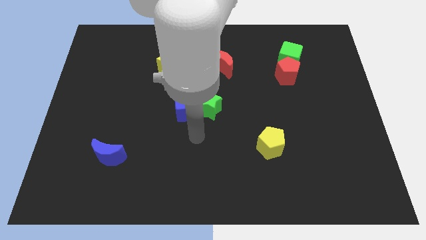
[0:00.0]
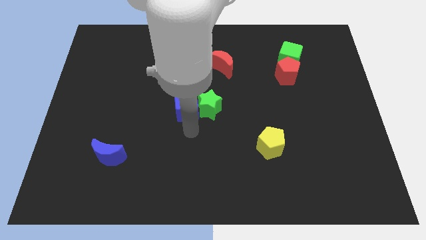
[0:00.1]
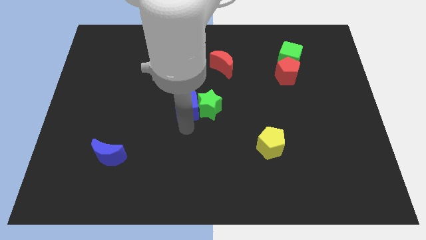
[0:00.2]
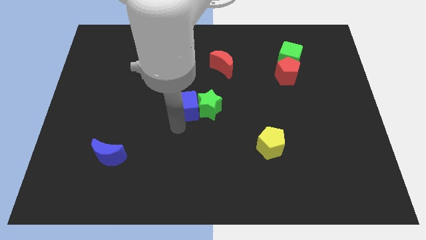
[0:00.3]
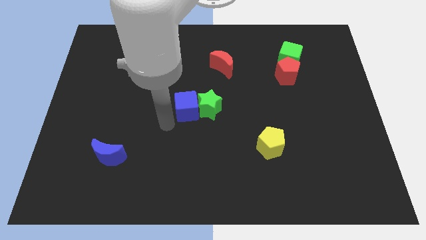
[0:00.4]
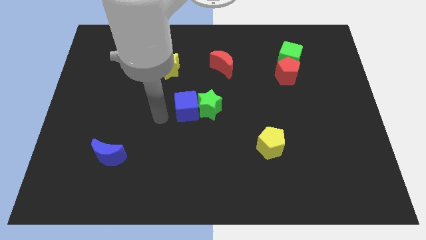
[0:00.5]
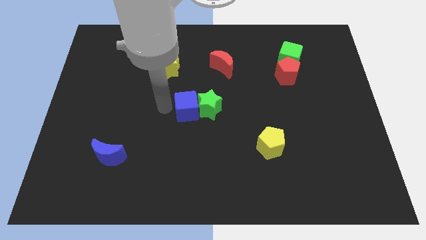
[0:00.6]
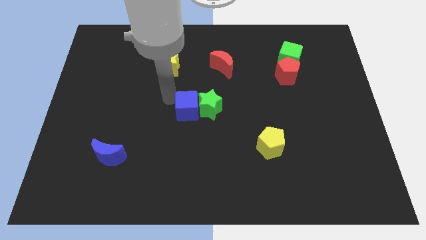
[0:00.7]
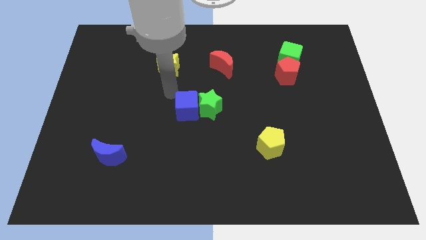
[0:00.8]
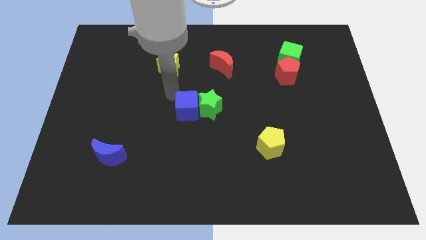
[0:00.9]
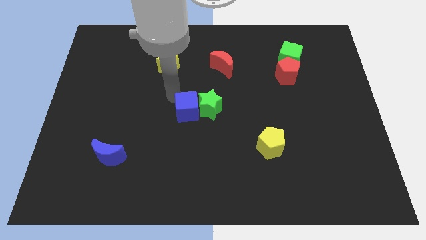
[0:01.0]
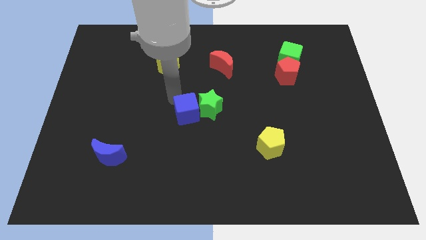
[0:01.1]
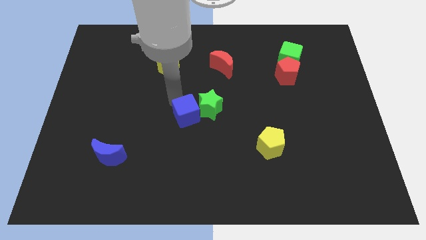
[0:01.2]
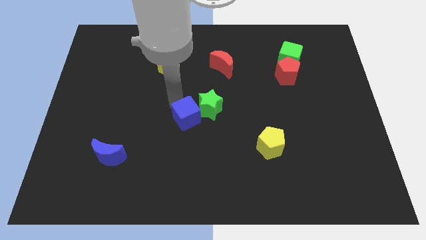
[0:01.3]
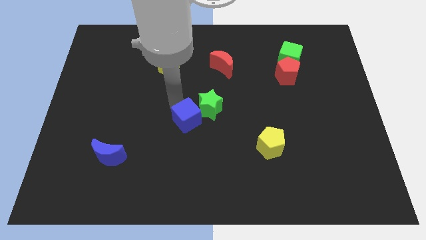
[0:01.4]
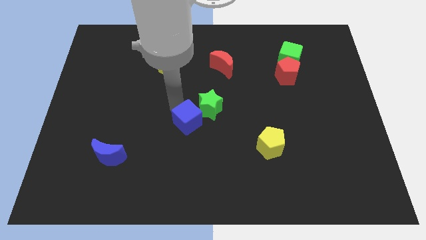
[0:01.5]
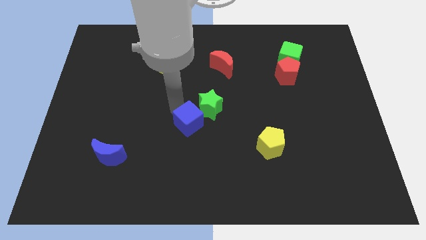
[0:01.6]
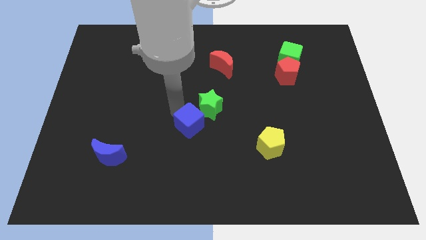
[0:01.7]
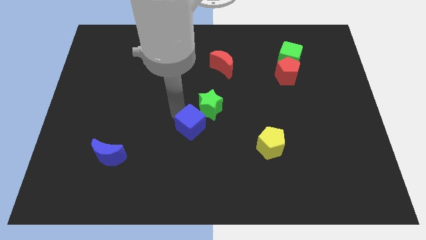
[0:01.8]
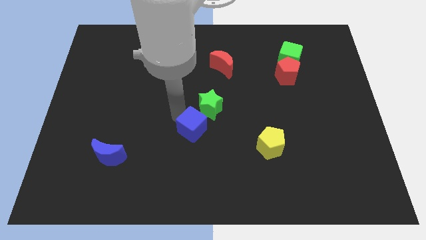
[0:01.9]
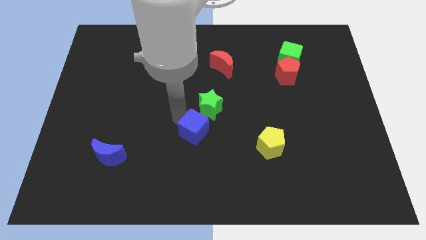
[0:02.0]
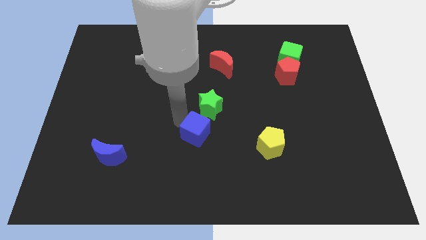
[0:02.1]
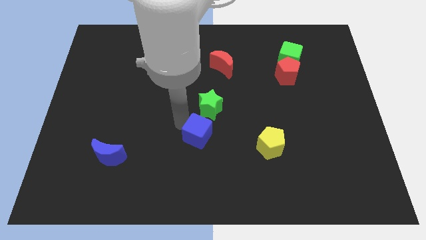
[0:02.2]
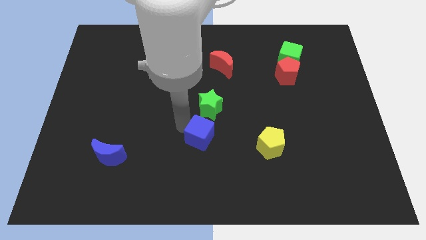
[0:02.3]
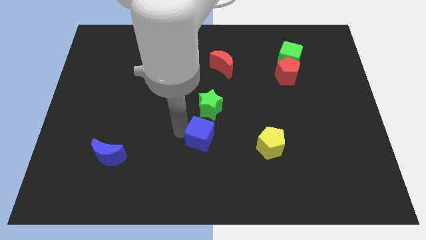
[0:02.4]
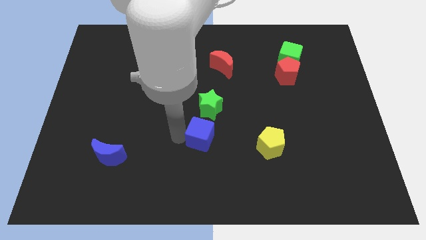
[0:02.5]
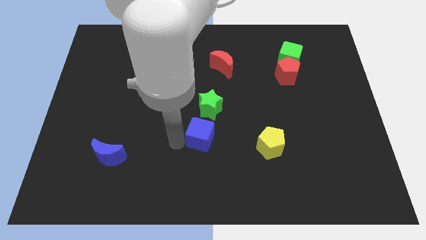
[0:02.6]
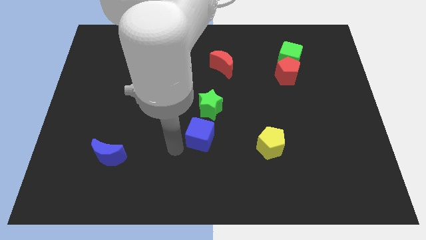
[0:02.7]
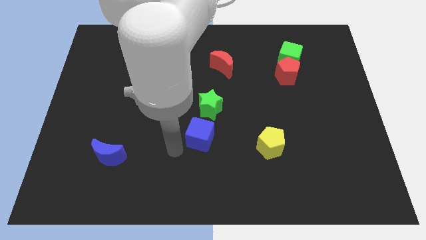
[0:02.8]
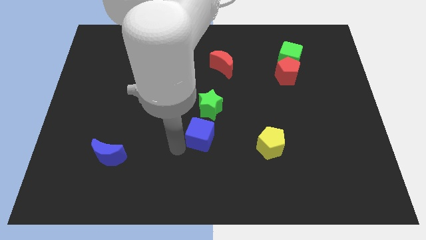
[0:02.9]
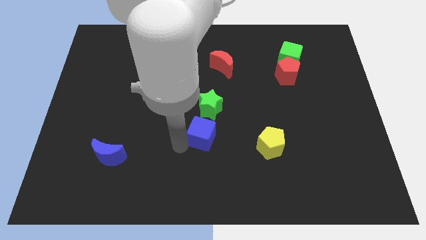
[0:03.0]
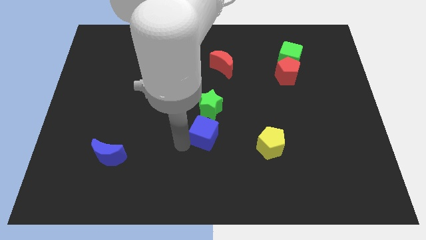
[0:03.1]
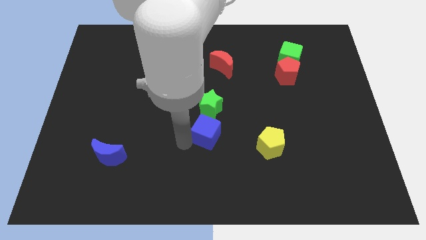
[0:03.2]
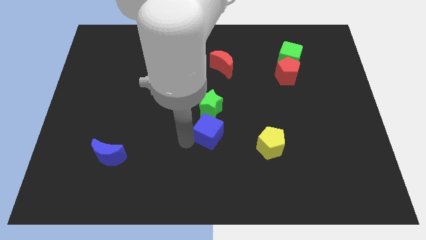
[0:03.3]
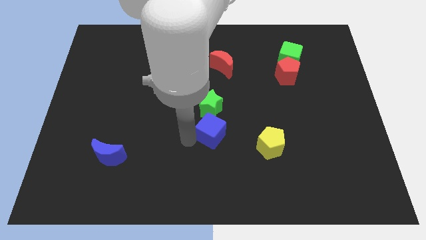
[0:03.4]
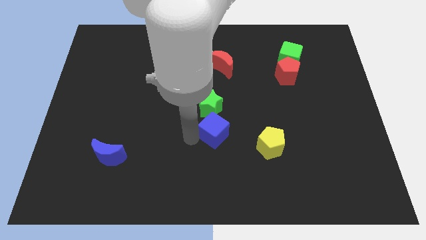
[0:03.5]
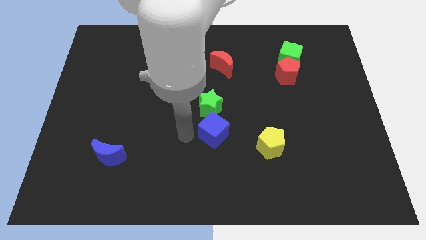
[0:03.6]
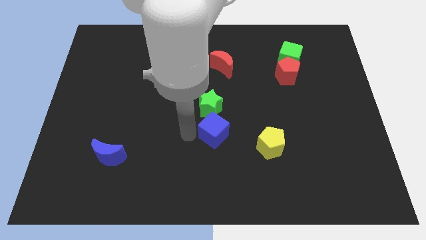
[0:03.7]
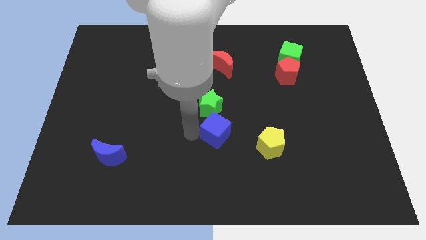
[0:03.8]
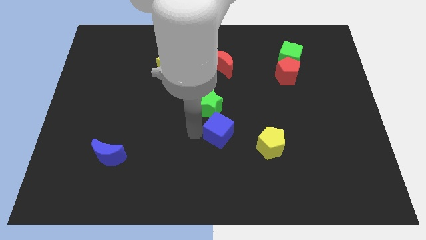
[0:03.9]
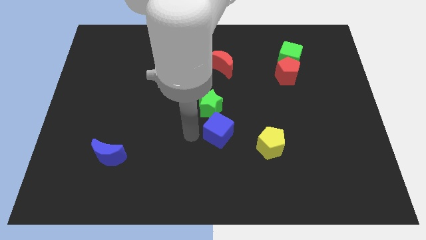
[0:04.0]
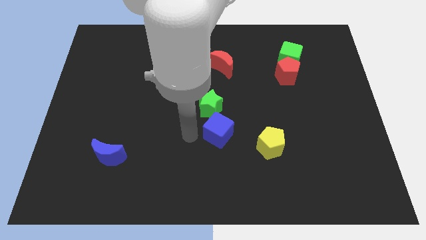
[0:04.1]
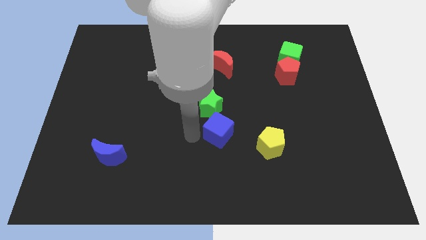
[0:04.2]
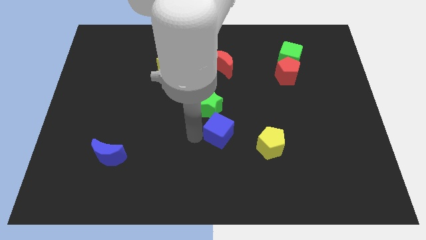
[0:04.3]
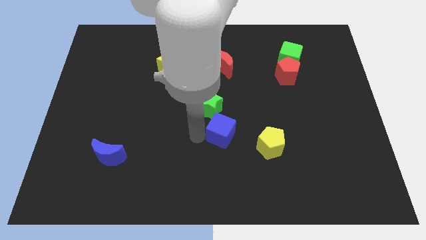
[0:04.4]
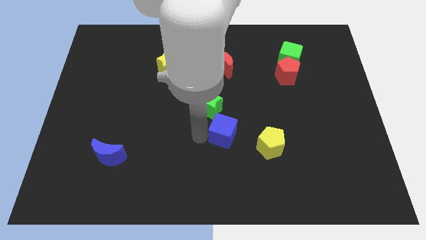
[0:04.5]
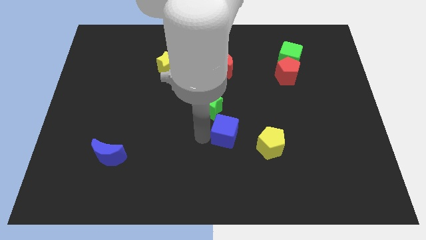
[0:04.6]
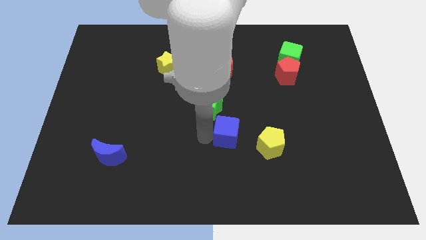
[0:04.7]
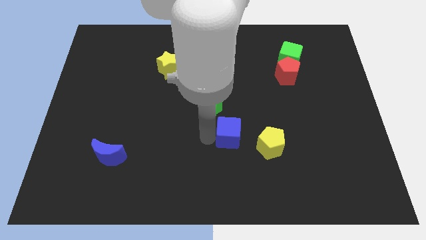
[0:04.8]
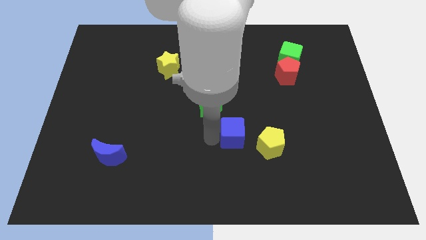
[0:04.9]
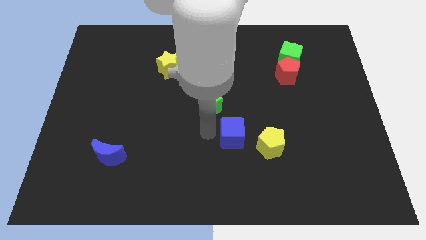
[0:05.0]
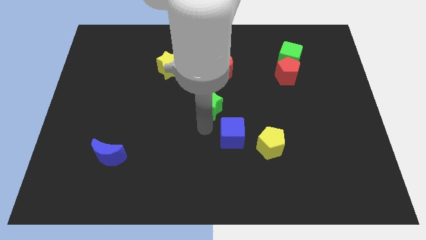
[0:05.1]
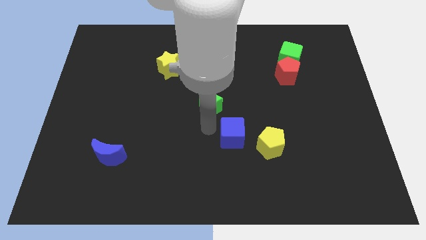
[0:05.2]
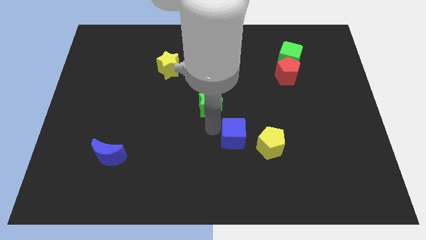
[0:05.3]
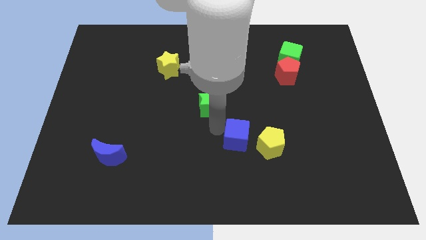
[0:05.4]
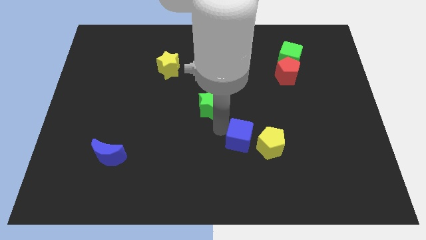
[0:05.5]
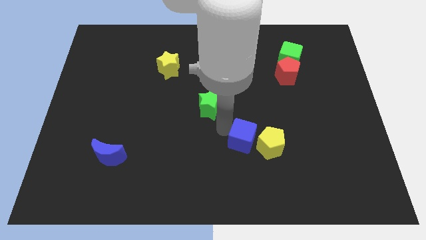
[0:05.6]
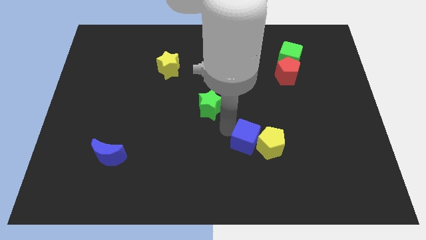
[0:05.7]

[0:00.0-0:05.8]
push the blue cube to the yellow pentagon

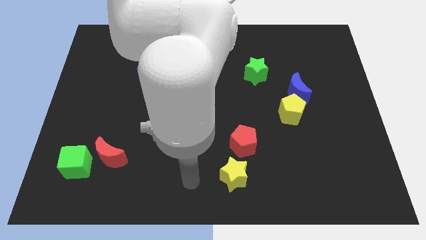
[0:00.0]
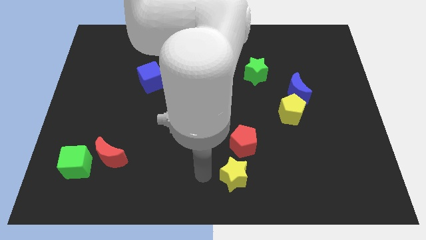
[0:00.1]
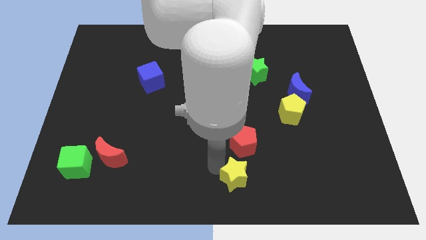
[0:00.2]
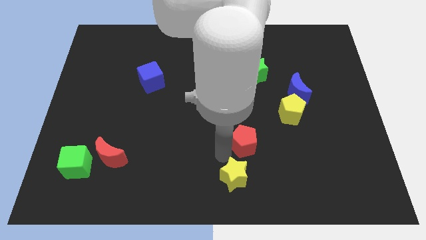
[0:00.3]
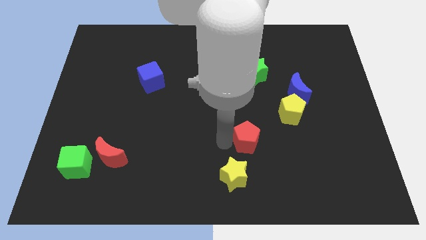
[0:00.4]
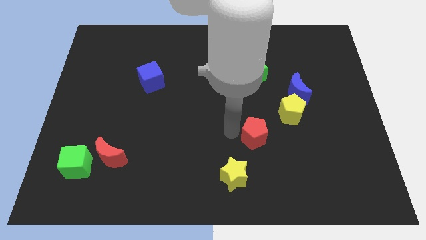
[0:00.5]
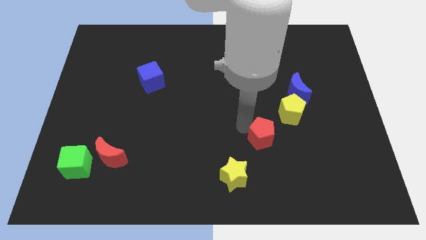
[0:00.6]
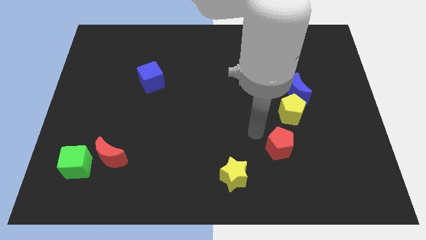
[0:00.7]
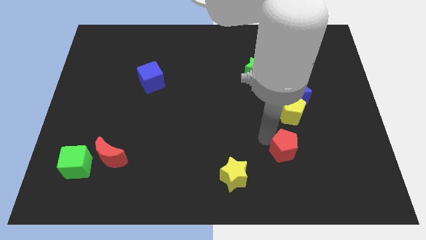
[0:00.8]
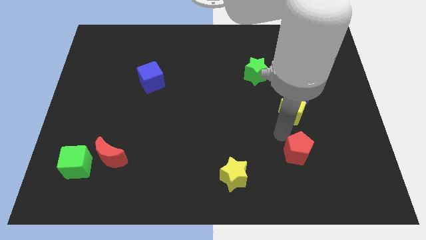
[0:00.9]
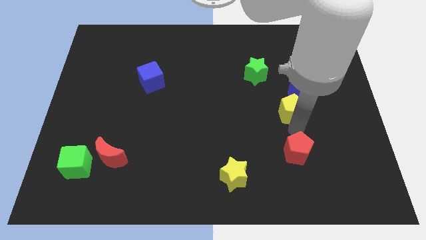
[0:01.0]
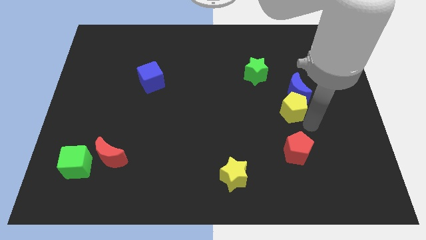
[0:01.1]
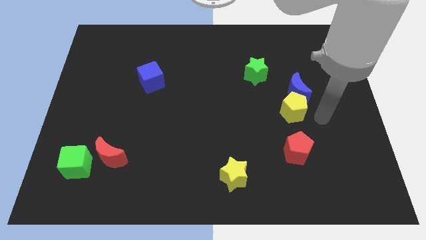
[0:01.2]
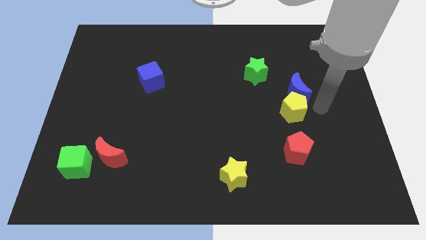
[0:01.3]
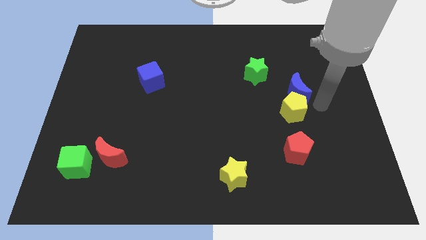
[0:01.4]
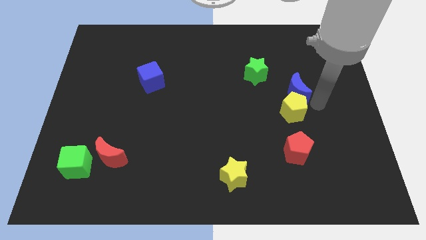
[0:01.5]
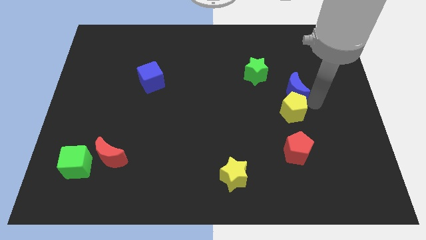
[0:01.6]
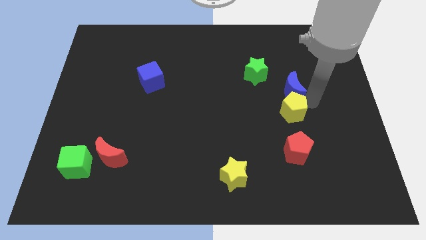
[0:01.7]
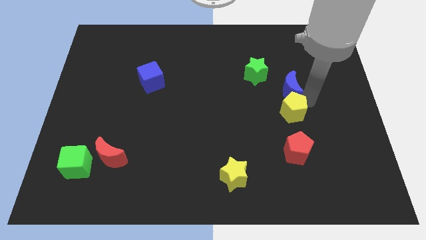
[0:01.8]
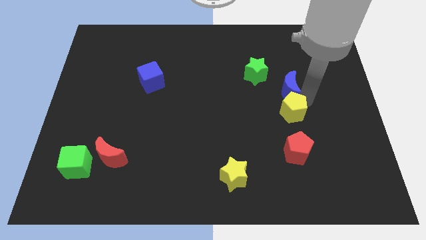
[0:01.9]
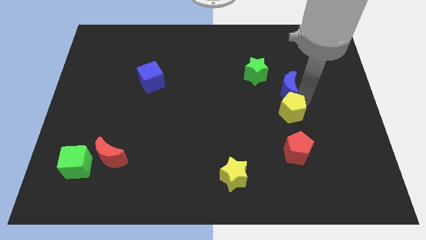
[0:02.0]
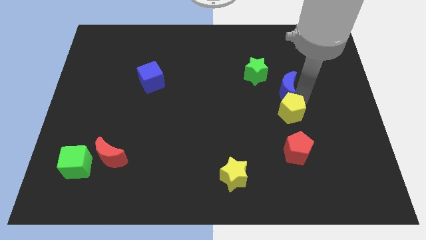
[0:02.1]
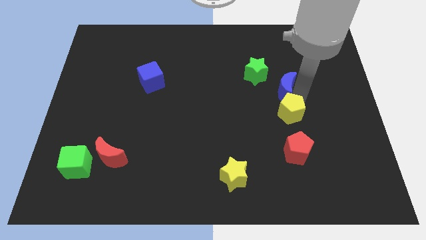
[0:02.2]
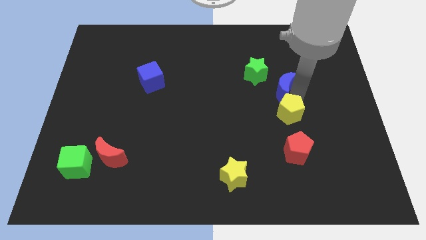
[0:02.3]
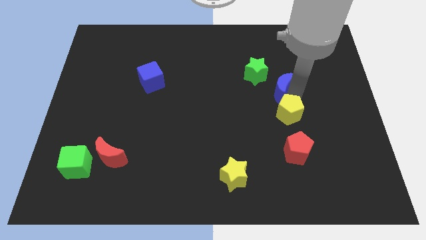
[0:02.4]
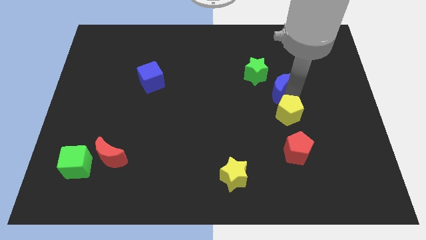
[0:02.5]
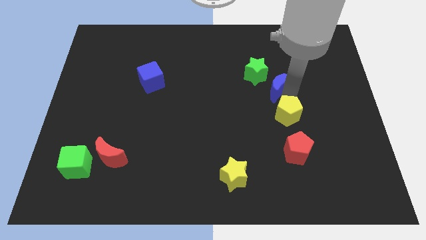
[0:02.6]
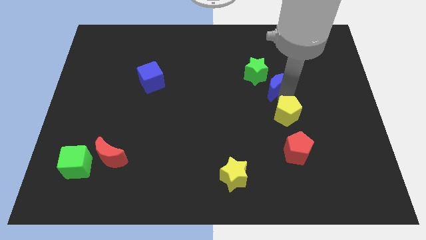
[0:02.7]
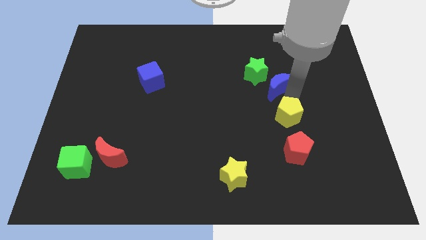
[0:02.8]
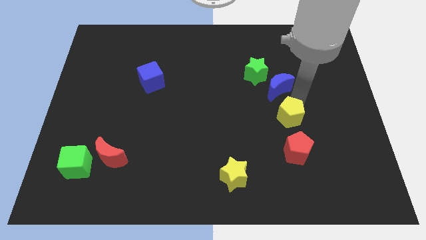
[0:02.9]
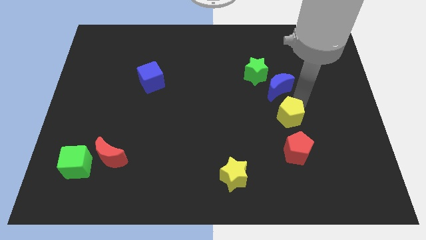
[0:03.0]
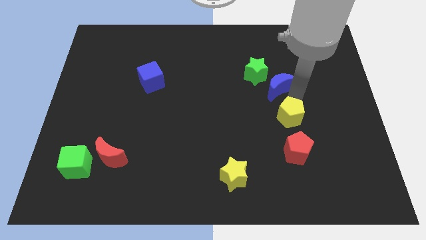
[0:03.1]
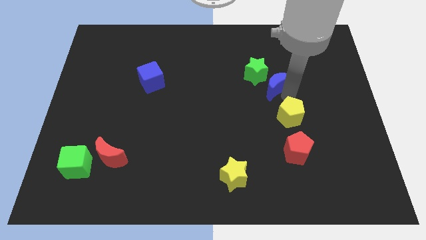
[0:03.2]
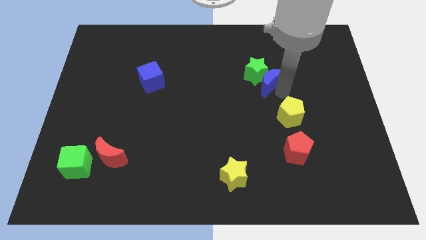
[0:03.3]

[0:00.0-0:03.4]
slide the blue moon close to the green star
